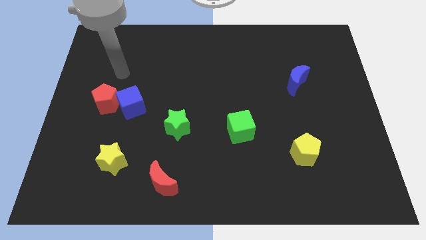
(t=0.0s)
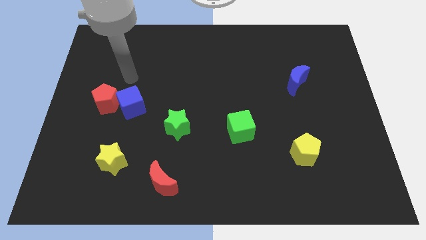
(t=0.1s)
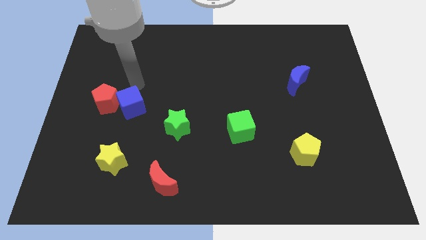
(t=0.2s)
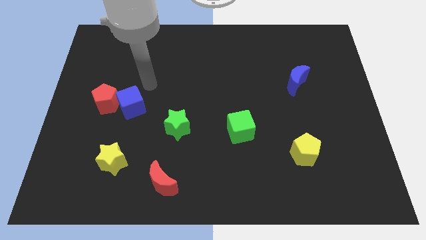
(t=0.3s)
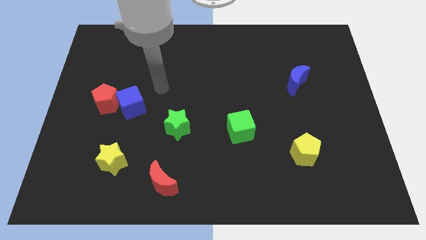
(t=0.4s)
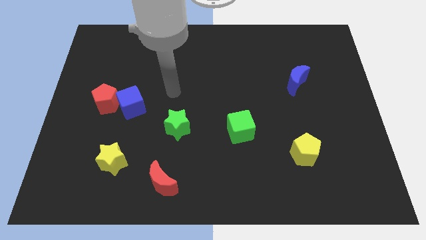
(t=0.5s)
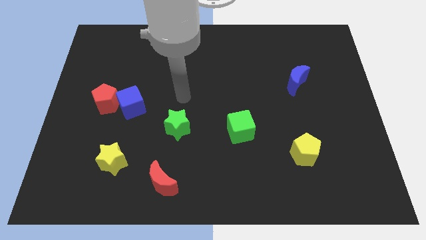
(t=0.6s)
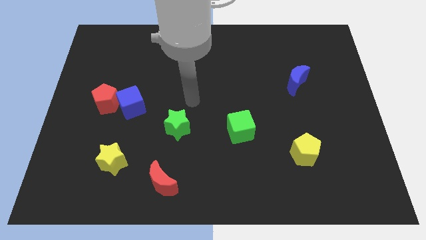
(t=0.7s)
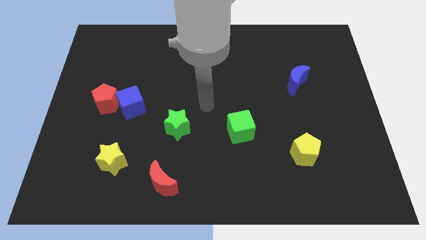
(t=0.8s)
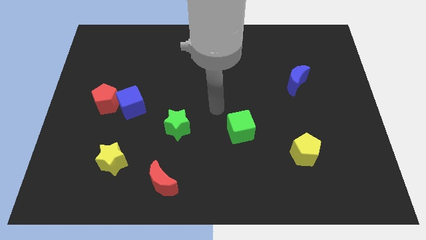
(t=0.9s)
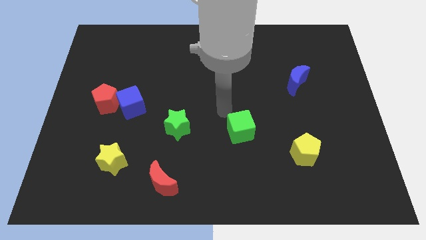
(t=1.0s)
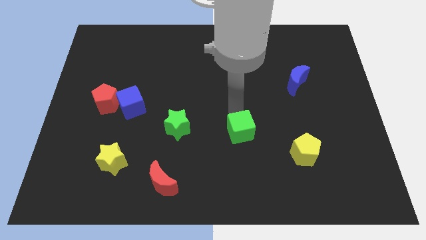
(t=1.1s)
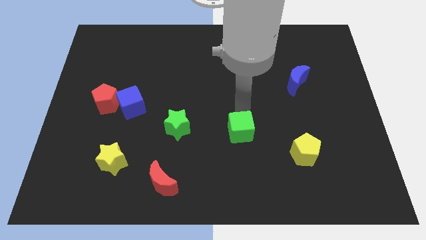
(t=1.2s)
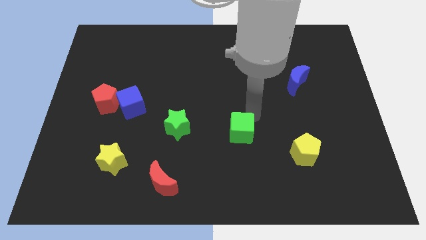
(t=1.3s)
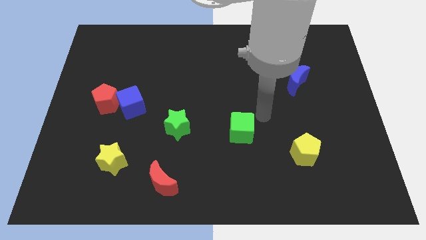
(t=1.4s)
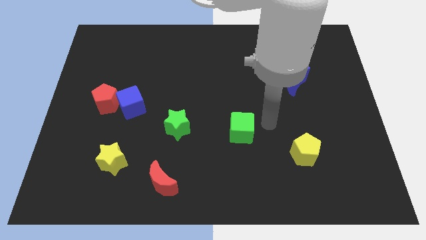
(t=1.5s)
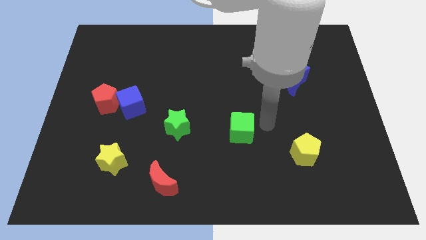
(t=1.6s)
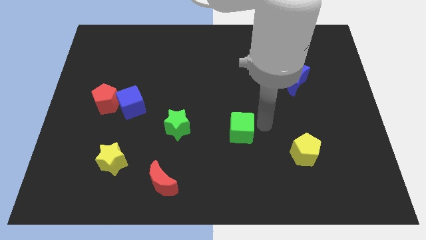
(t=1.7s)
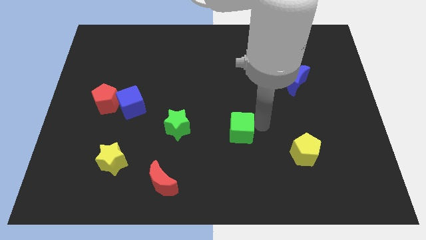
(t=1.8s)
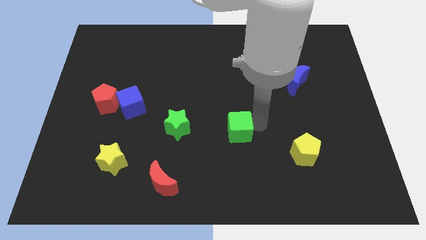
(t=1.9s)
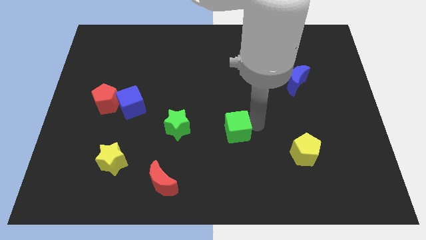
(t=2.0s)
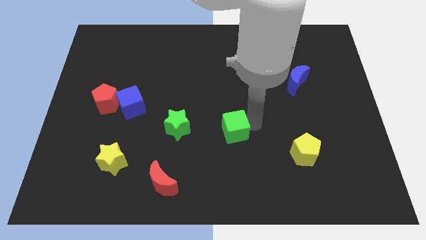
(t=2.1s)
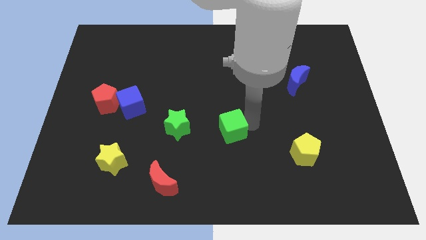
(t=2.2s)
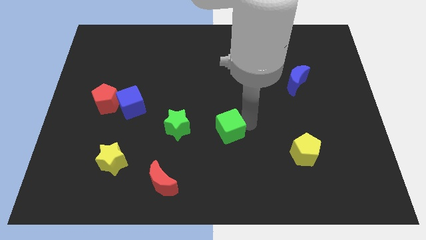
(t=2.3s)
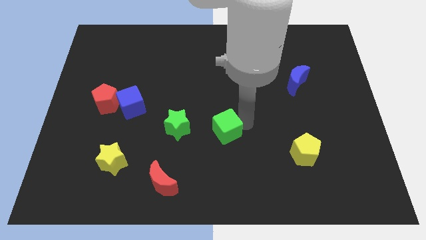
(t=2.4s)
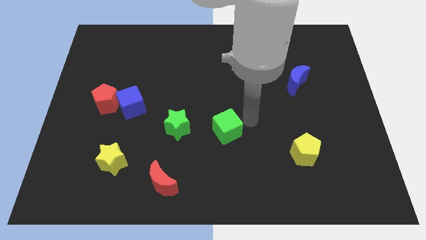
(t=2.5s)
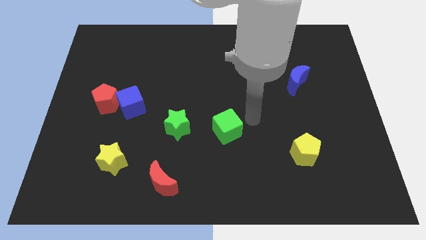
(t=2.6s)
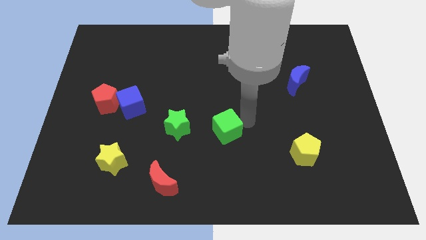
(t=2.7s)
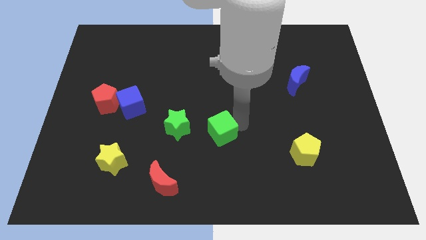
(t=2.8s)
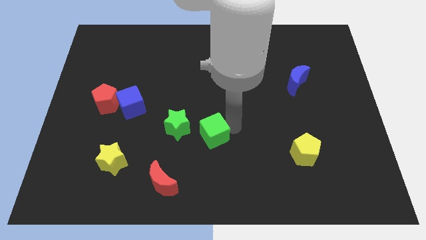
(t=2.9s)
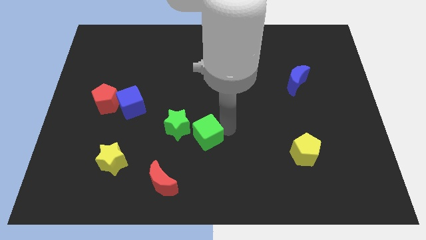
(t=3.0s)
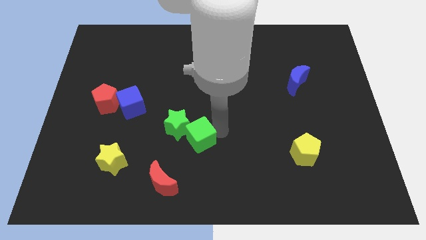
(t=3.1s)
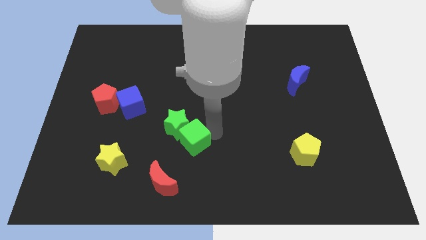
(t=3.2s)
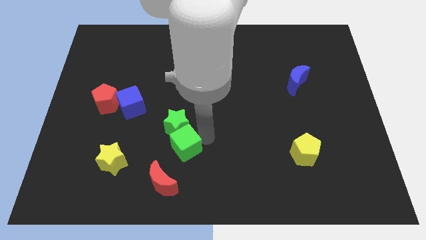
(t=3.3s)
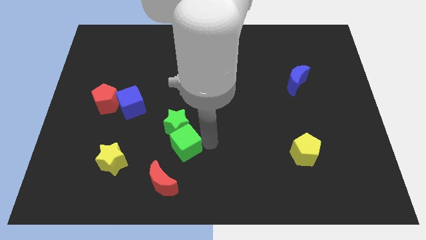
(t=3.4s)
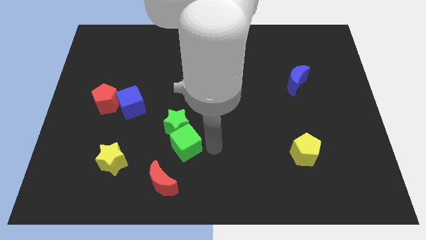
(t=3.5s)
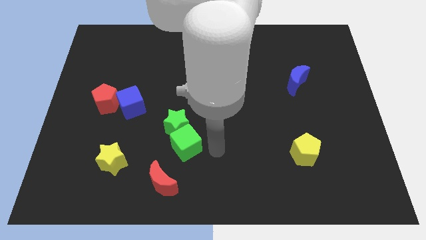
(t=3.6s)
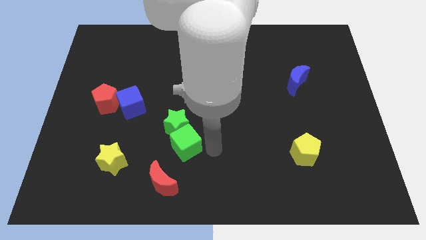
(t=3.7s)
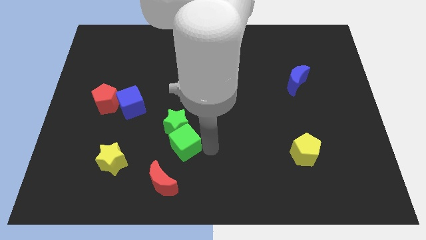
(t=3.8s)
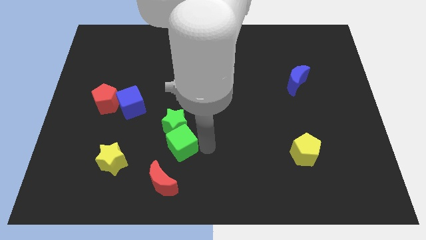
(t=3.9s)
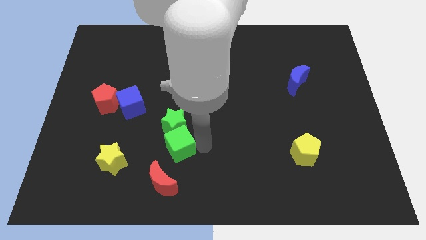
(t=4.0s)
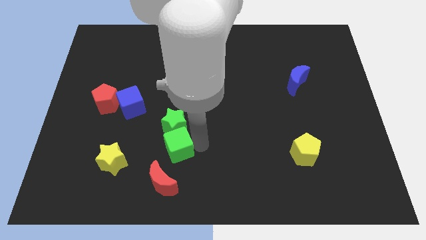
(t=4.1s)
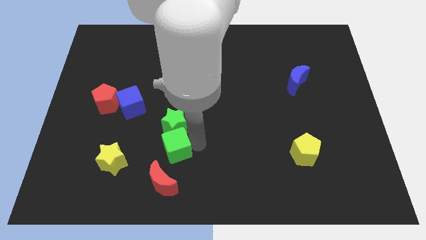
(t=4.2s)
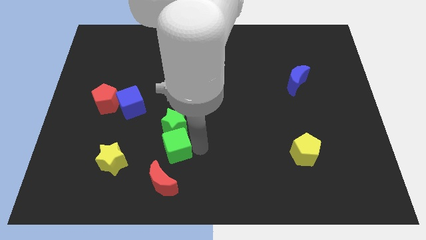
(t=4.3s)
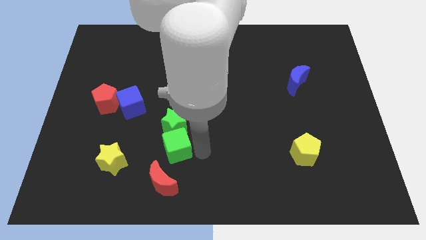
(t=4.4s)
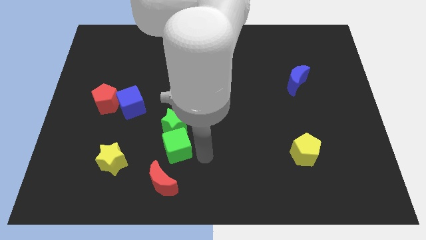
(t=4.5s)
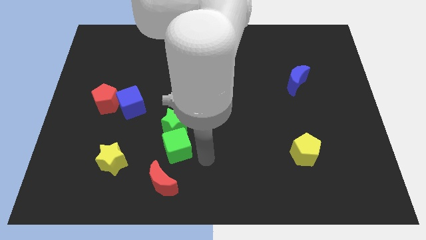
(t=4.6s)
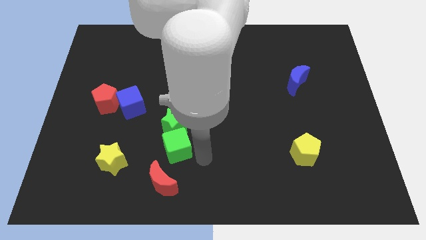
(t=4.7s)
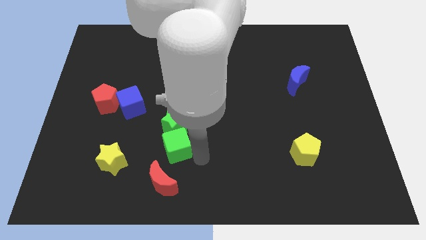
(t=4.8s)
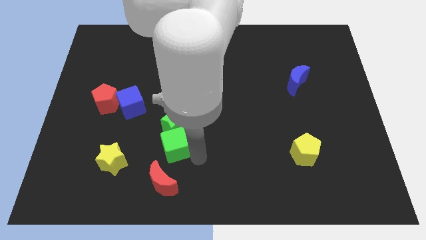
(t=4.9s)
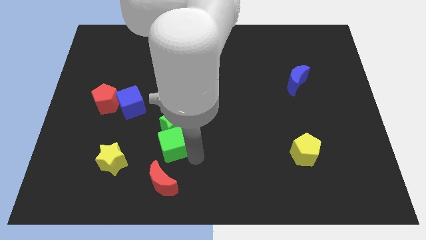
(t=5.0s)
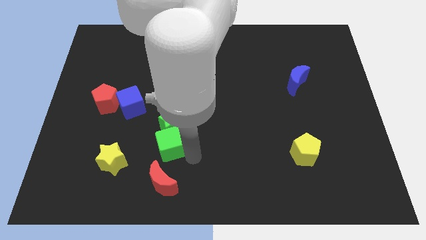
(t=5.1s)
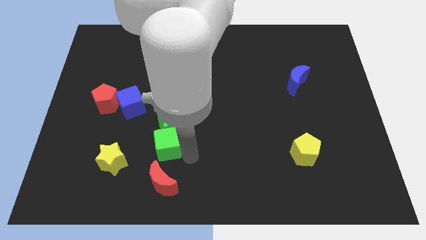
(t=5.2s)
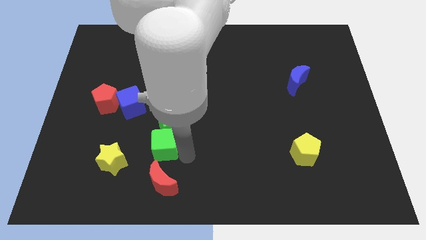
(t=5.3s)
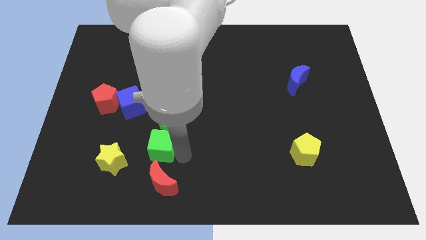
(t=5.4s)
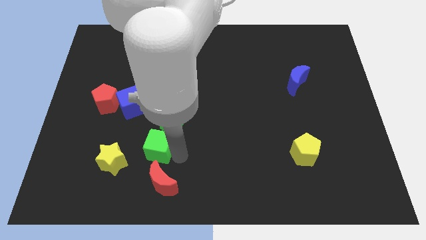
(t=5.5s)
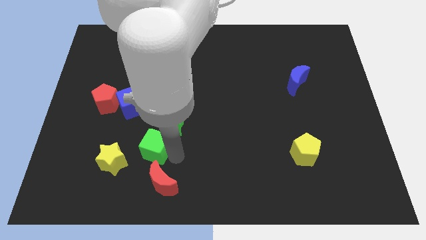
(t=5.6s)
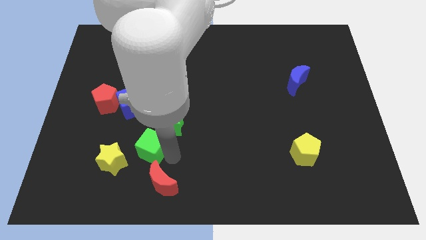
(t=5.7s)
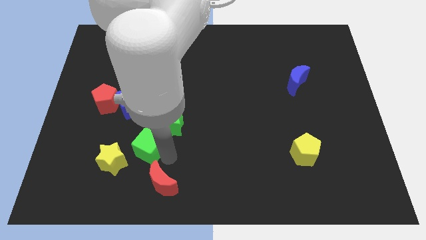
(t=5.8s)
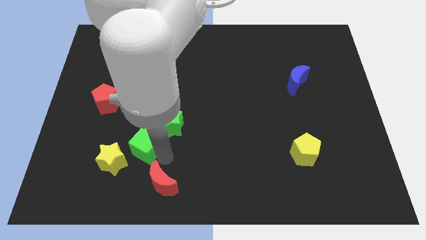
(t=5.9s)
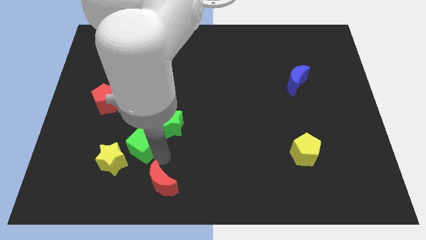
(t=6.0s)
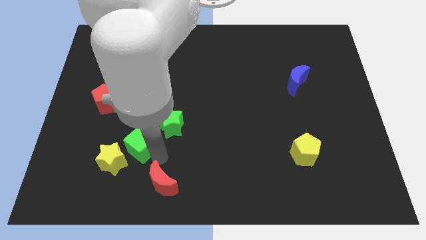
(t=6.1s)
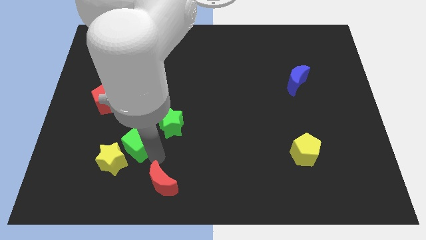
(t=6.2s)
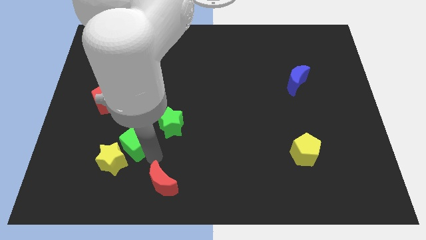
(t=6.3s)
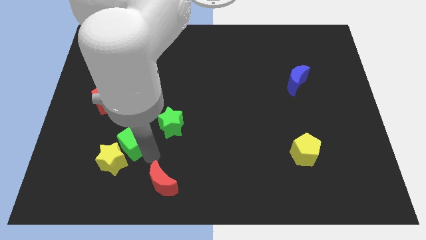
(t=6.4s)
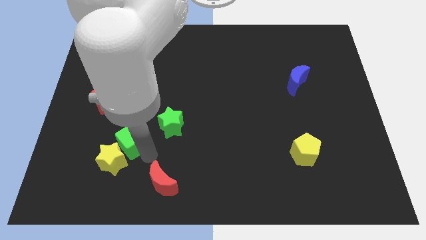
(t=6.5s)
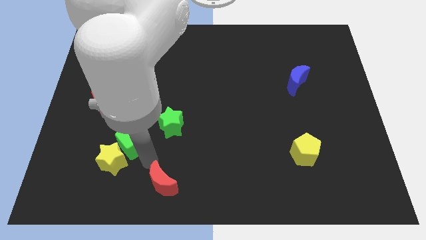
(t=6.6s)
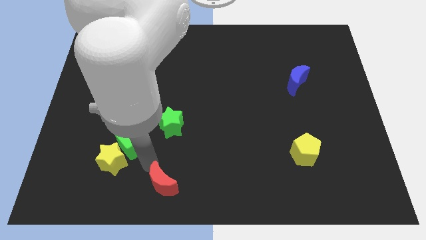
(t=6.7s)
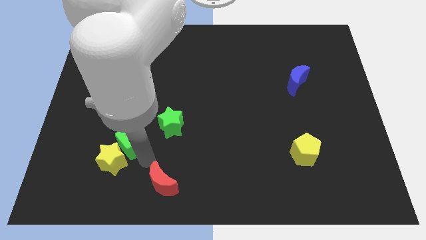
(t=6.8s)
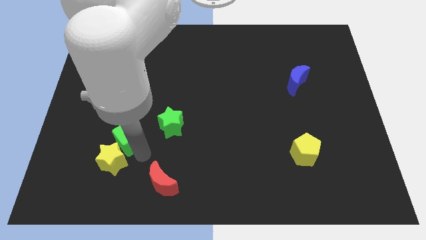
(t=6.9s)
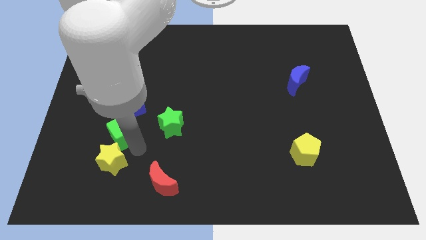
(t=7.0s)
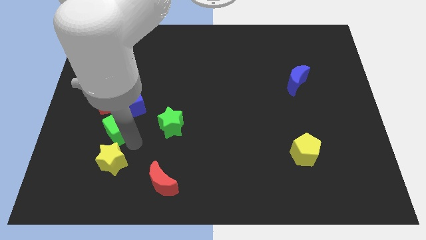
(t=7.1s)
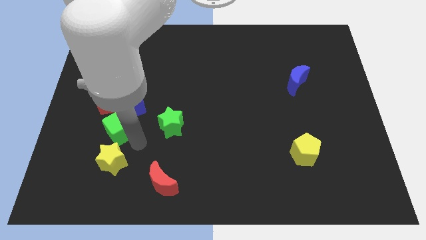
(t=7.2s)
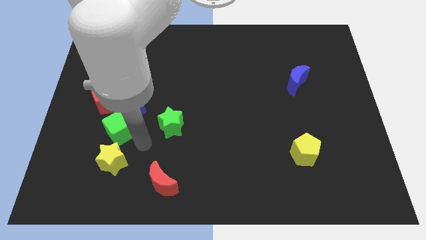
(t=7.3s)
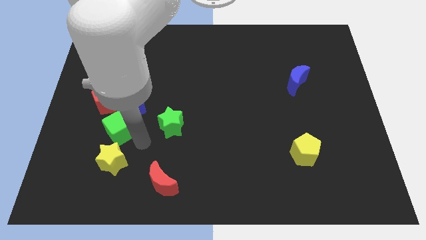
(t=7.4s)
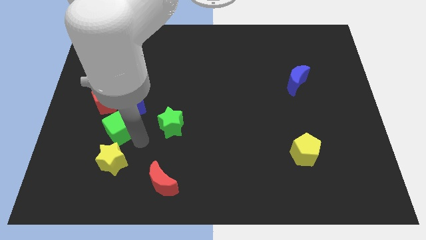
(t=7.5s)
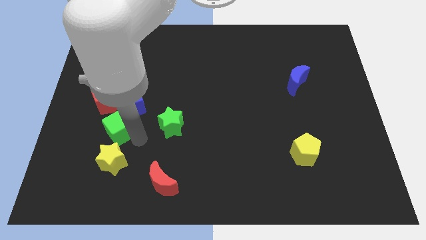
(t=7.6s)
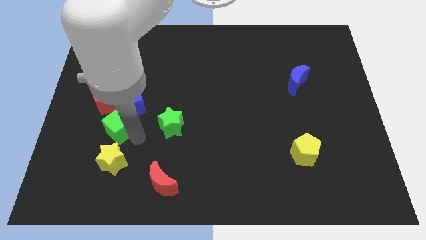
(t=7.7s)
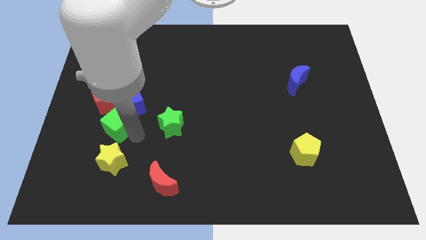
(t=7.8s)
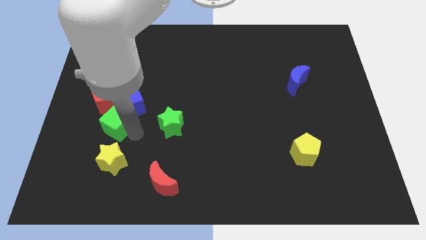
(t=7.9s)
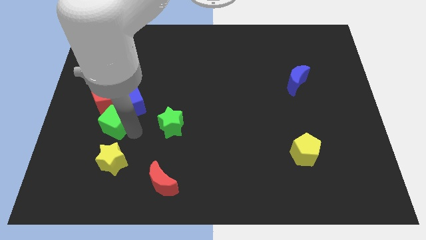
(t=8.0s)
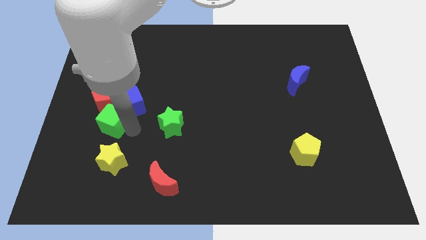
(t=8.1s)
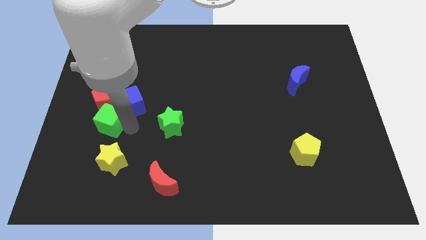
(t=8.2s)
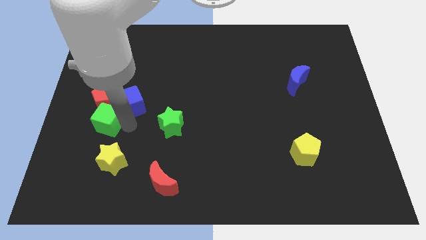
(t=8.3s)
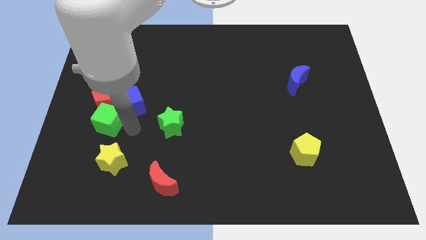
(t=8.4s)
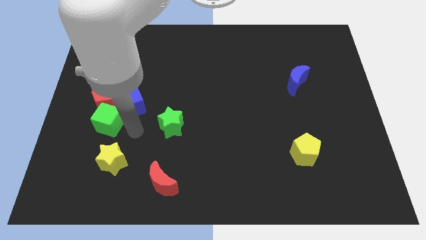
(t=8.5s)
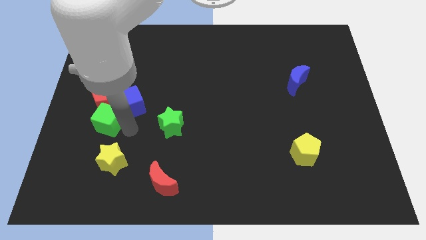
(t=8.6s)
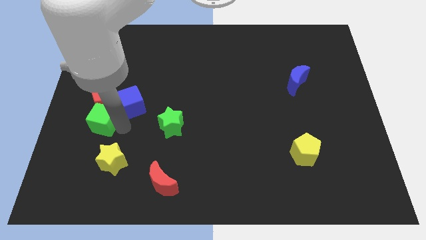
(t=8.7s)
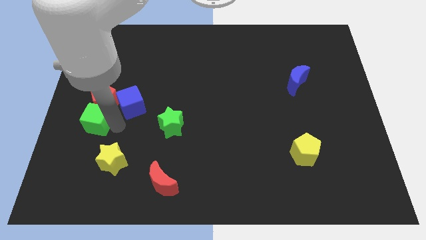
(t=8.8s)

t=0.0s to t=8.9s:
slide the green cube to the left side of the board
